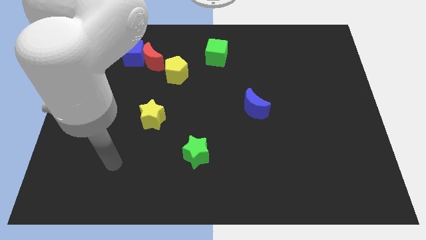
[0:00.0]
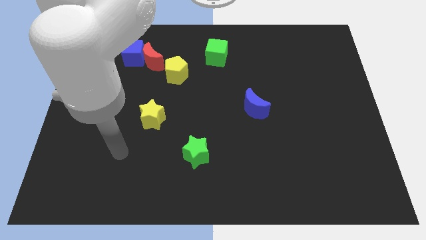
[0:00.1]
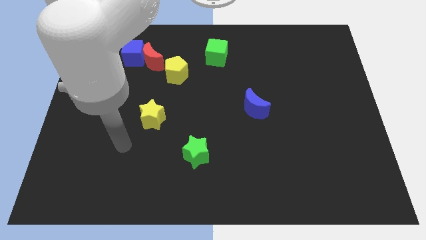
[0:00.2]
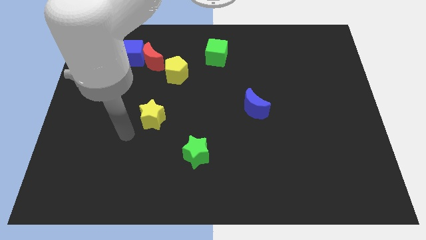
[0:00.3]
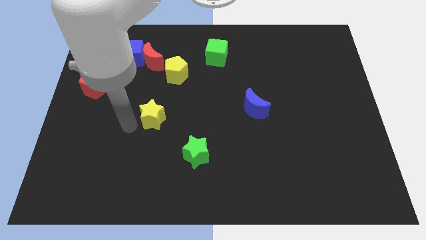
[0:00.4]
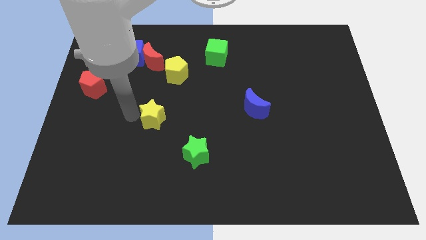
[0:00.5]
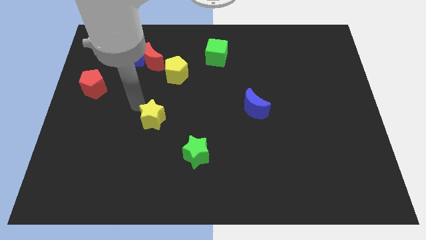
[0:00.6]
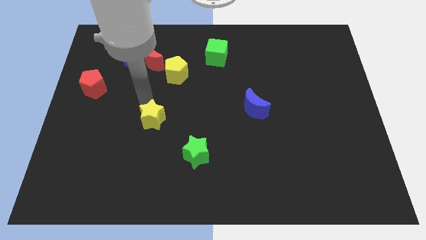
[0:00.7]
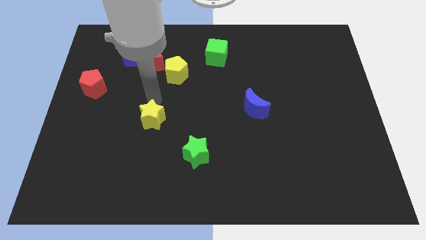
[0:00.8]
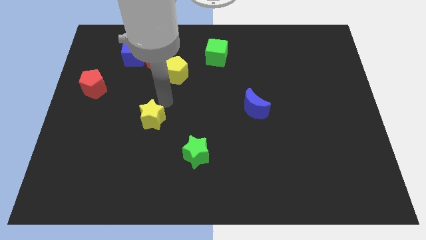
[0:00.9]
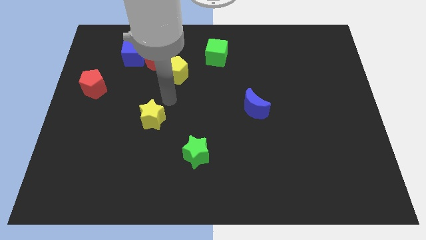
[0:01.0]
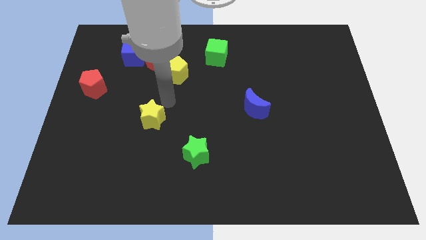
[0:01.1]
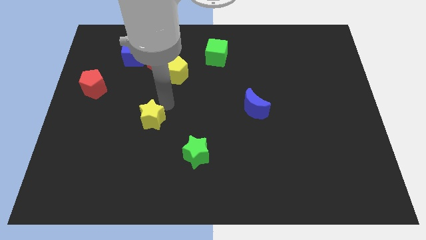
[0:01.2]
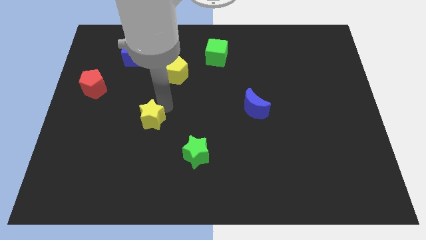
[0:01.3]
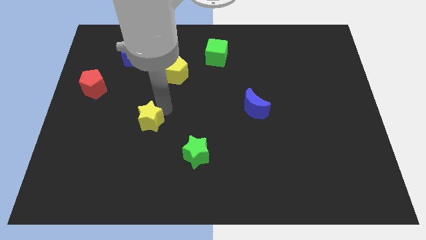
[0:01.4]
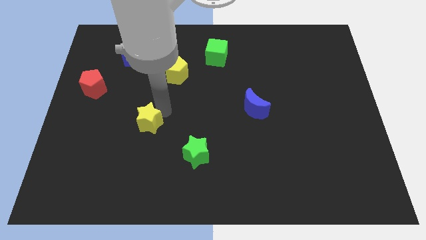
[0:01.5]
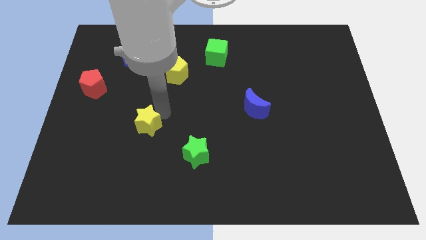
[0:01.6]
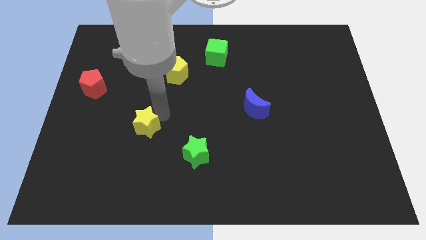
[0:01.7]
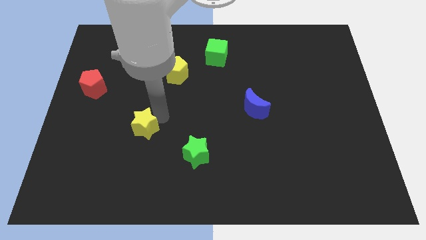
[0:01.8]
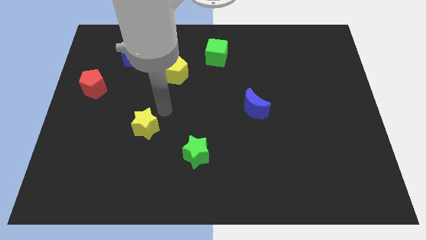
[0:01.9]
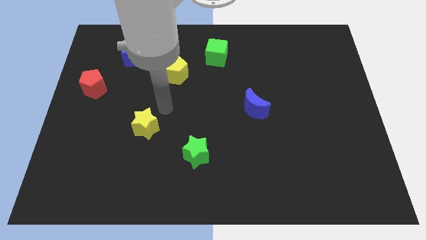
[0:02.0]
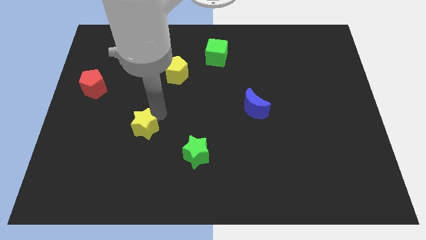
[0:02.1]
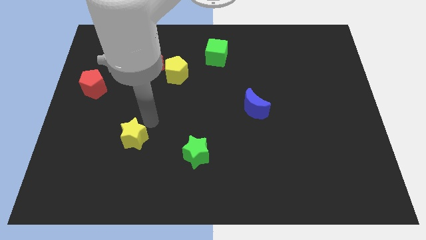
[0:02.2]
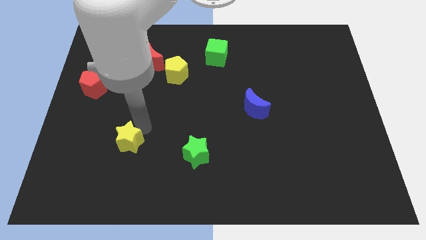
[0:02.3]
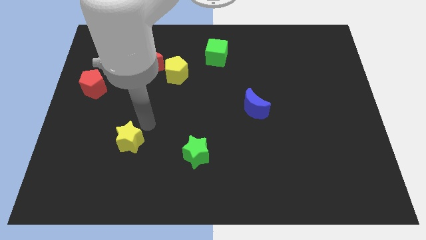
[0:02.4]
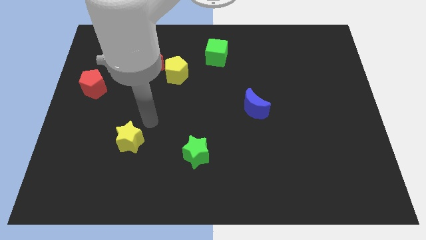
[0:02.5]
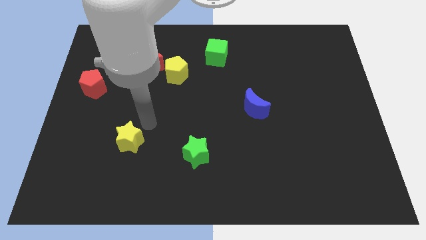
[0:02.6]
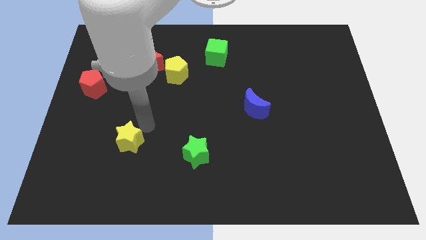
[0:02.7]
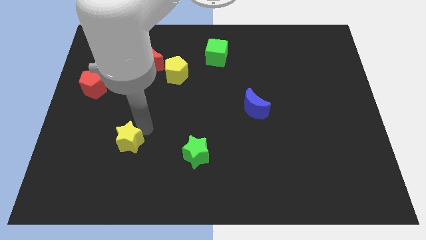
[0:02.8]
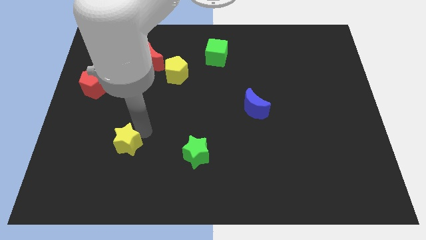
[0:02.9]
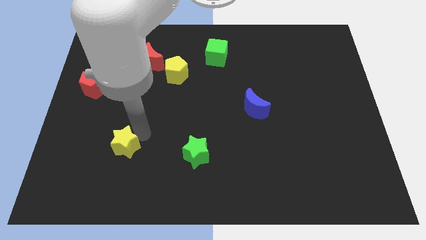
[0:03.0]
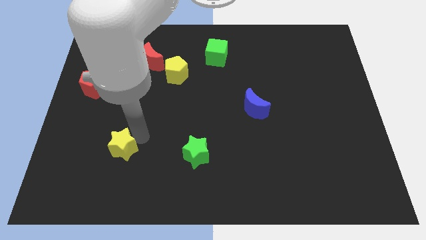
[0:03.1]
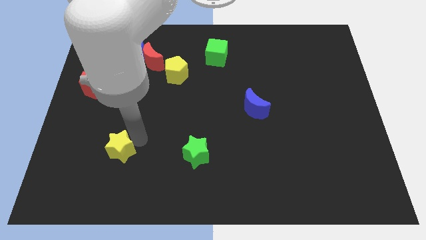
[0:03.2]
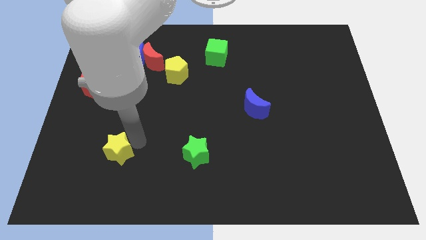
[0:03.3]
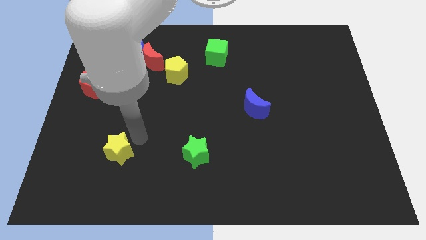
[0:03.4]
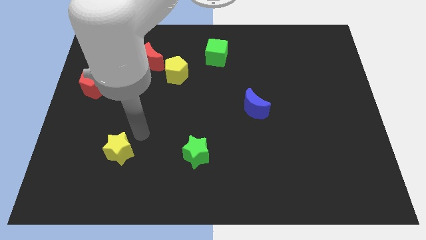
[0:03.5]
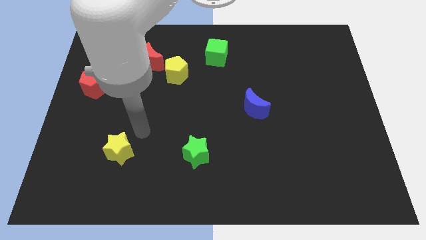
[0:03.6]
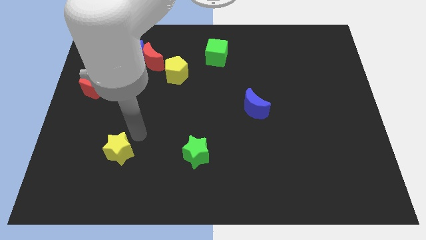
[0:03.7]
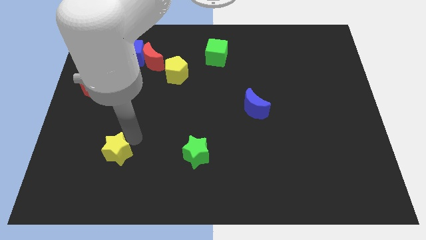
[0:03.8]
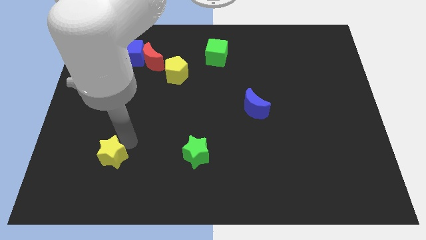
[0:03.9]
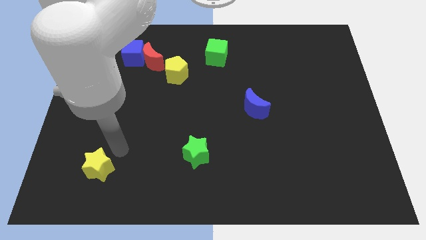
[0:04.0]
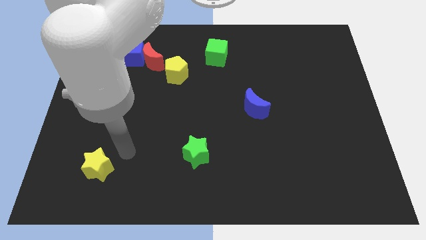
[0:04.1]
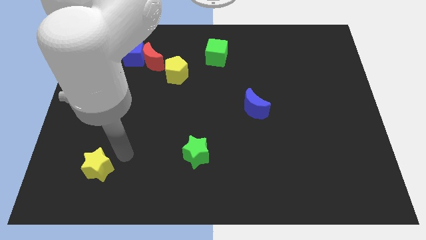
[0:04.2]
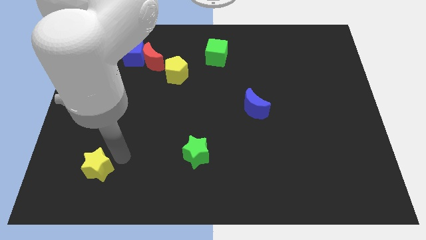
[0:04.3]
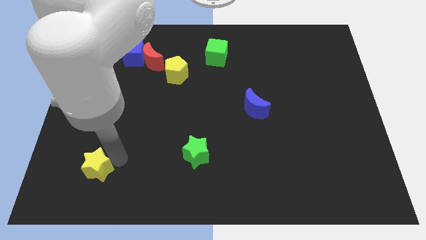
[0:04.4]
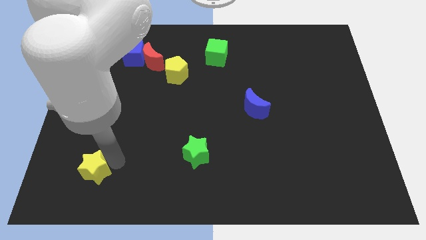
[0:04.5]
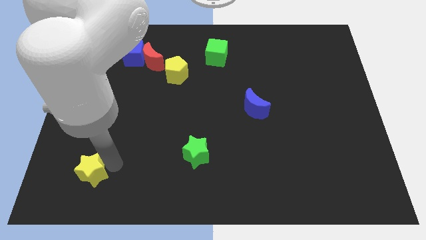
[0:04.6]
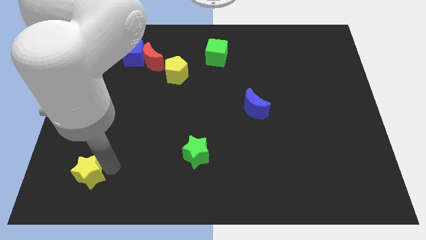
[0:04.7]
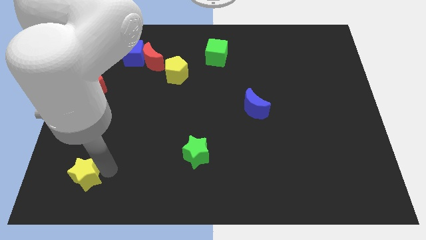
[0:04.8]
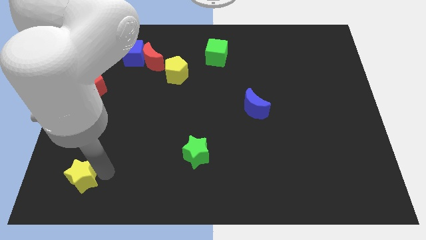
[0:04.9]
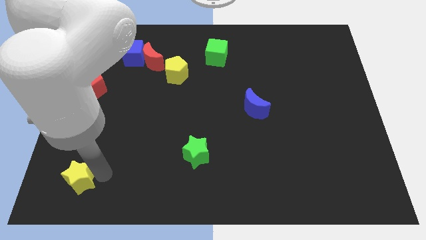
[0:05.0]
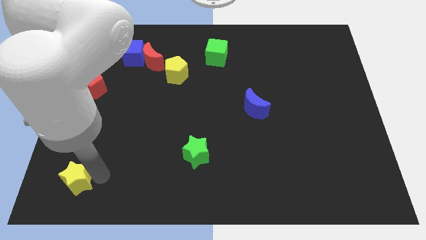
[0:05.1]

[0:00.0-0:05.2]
move the yellow star to the bottom left corner

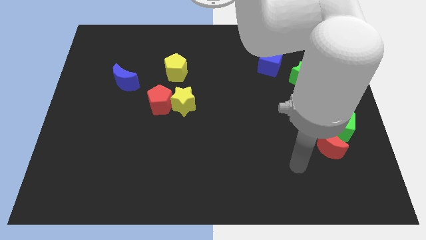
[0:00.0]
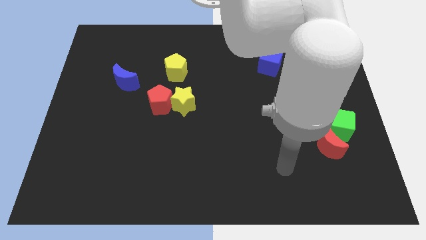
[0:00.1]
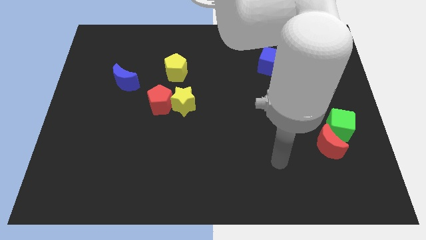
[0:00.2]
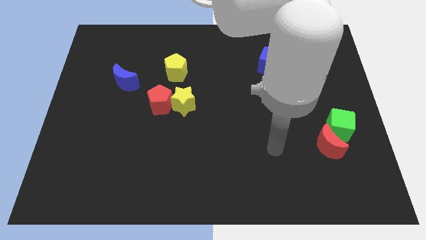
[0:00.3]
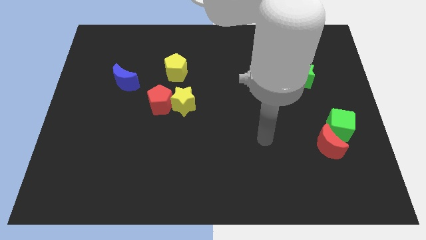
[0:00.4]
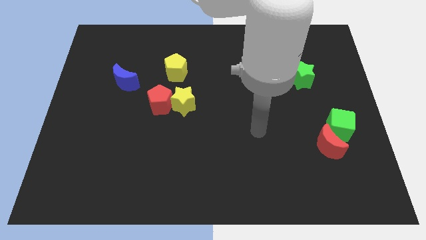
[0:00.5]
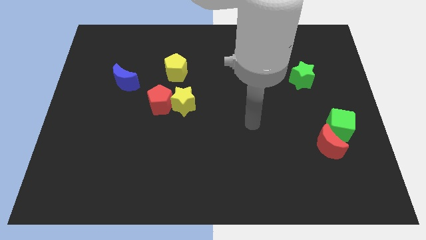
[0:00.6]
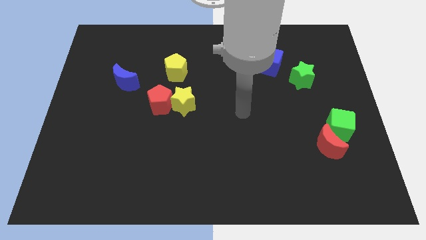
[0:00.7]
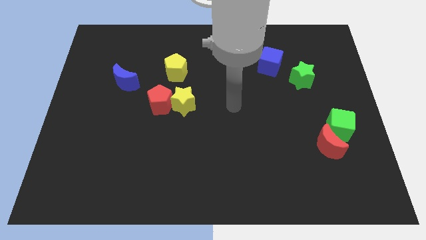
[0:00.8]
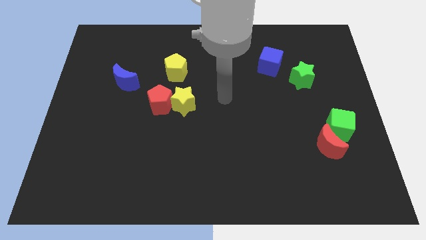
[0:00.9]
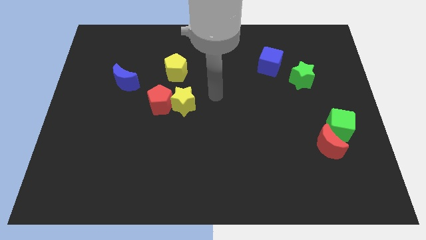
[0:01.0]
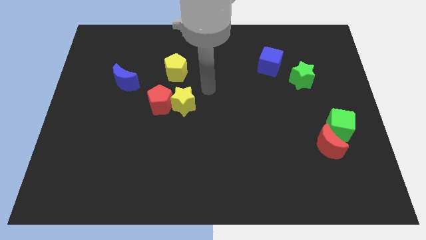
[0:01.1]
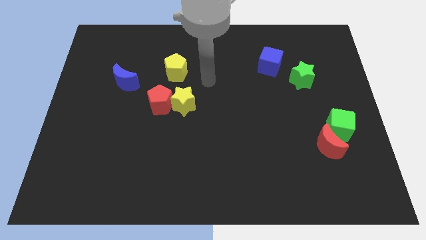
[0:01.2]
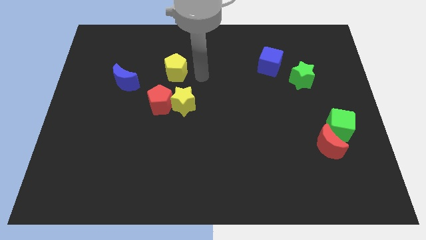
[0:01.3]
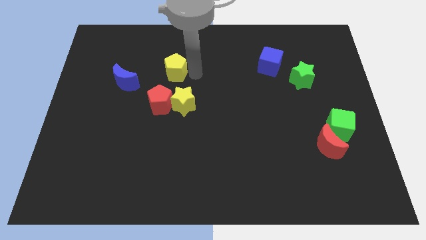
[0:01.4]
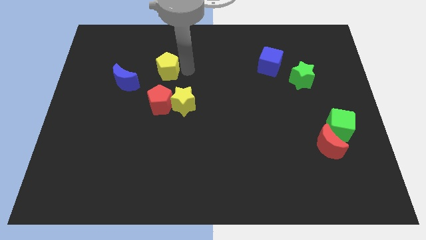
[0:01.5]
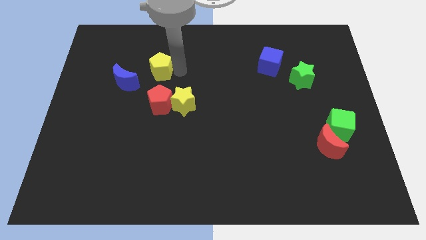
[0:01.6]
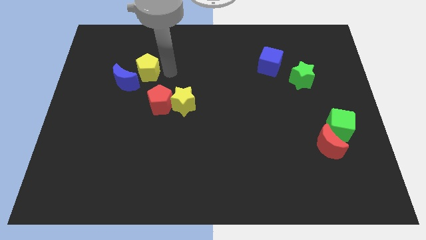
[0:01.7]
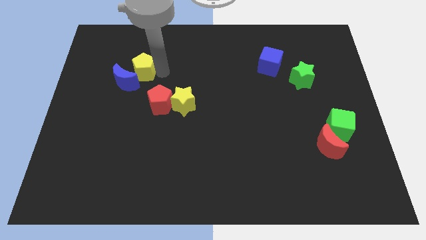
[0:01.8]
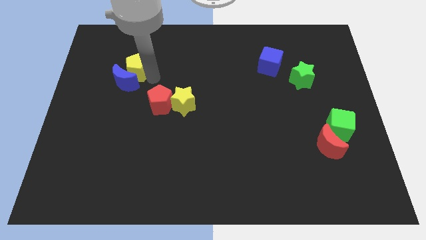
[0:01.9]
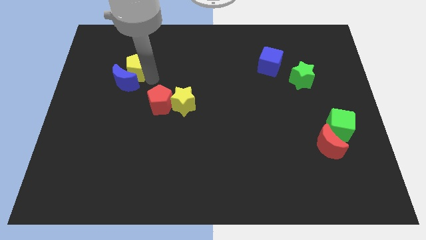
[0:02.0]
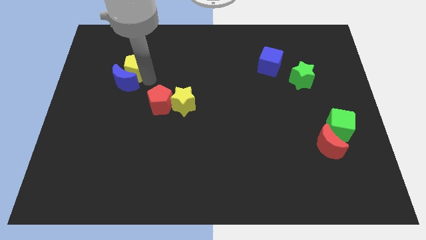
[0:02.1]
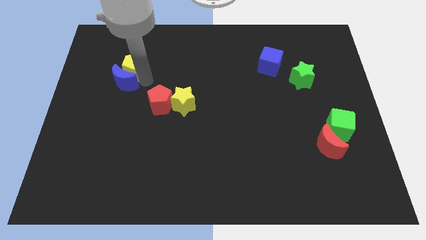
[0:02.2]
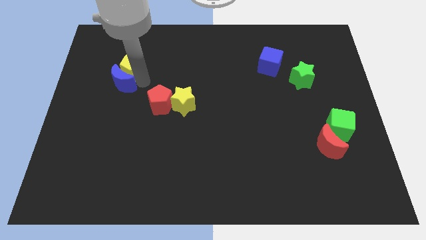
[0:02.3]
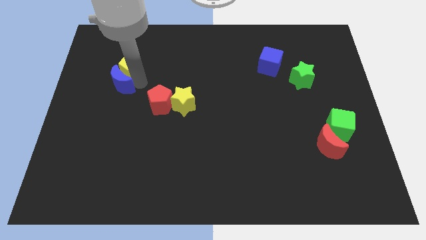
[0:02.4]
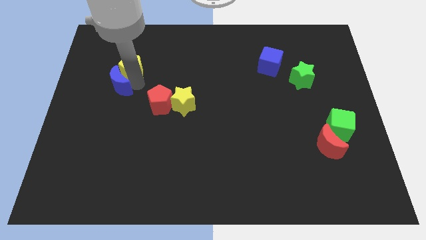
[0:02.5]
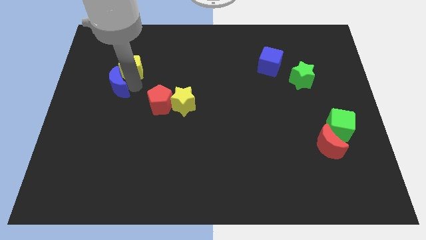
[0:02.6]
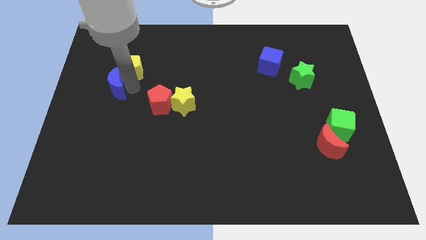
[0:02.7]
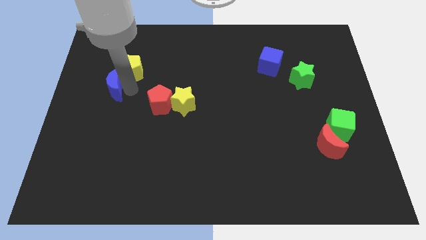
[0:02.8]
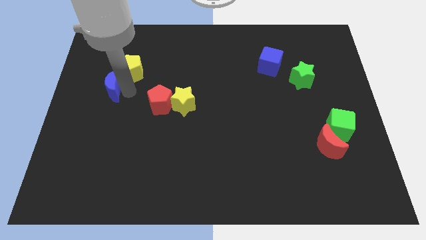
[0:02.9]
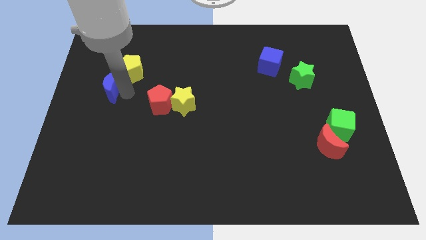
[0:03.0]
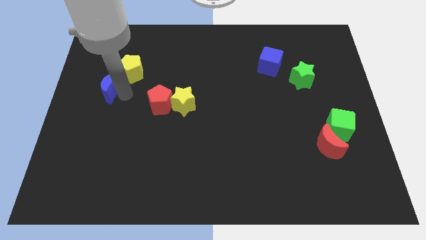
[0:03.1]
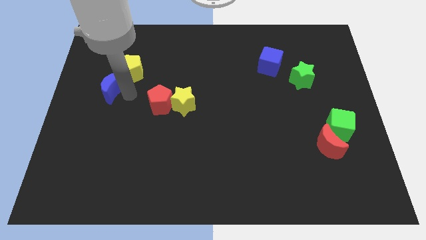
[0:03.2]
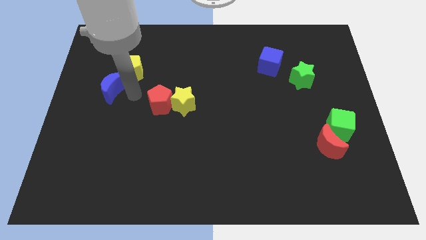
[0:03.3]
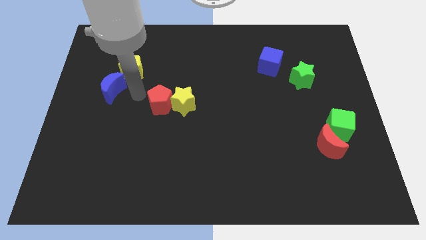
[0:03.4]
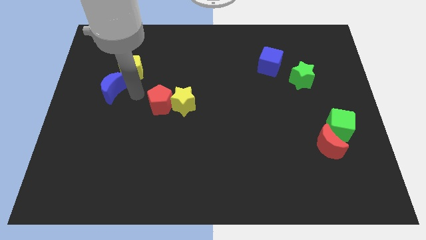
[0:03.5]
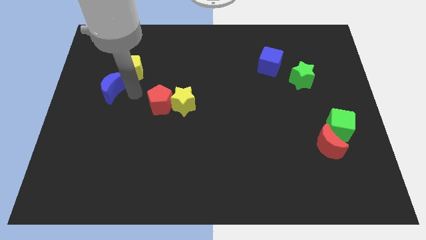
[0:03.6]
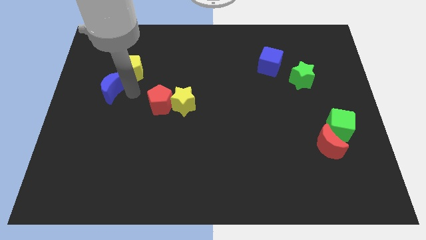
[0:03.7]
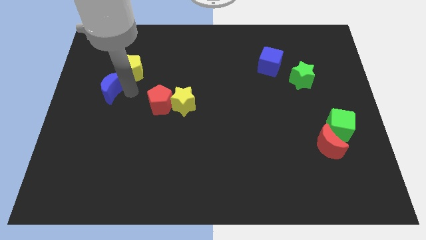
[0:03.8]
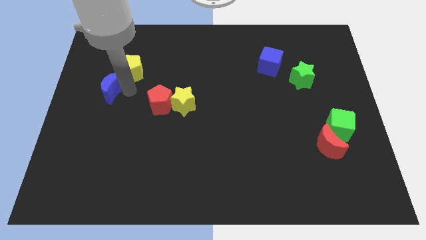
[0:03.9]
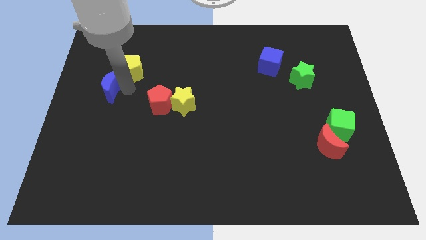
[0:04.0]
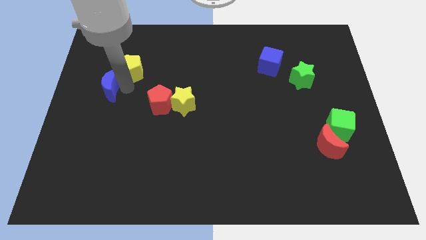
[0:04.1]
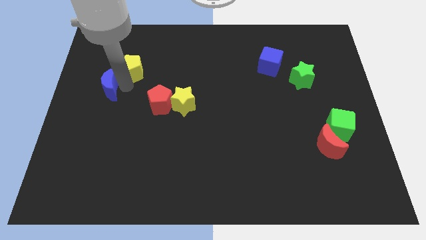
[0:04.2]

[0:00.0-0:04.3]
put the blue moon to the left side of the board
